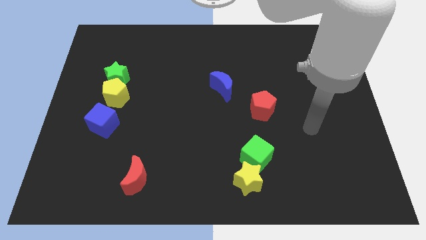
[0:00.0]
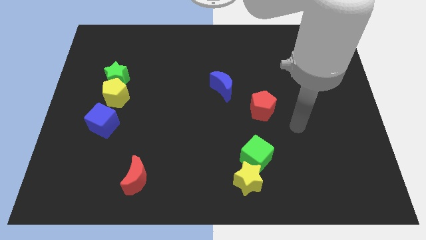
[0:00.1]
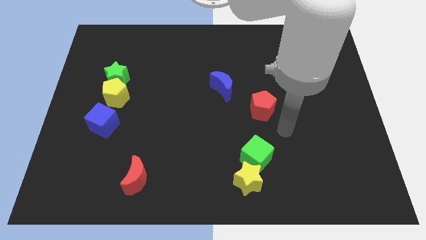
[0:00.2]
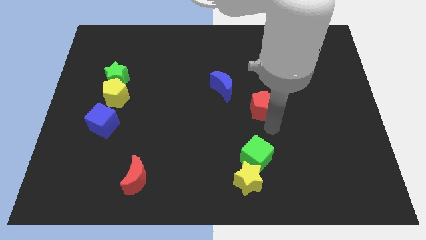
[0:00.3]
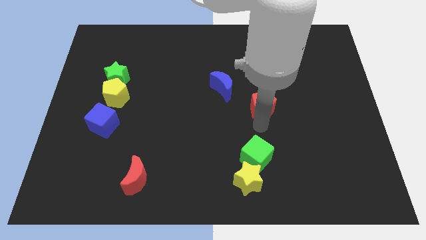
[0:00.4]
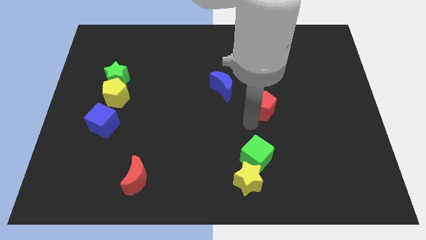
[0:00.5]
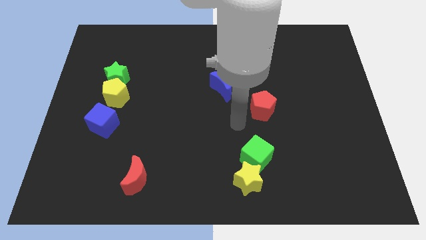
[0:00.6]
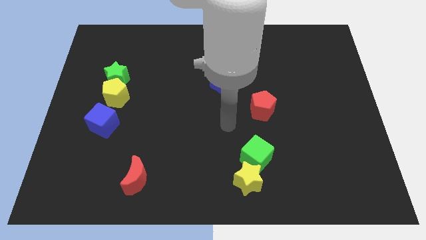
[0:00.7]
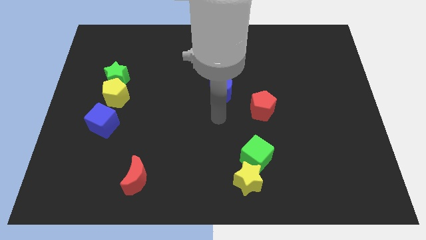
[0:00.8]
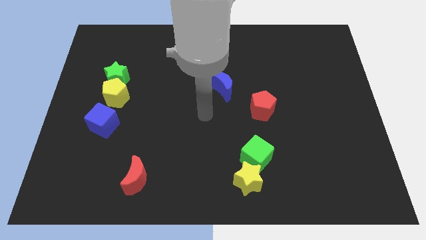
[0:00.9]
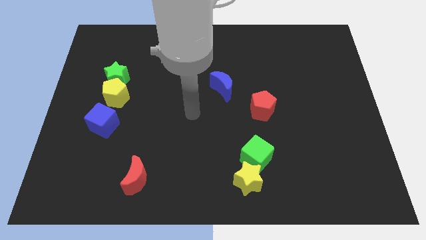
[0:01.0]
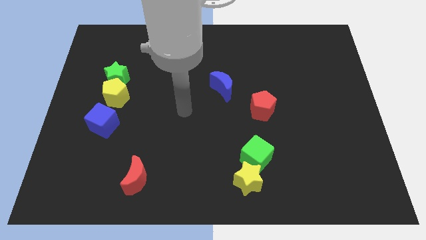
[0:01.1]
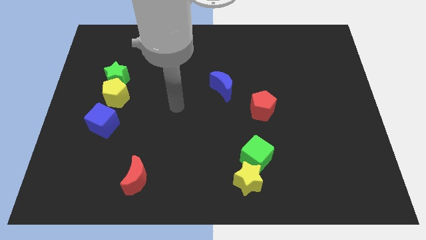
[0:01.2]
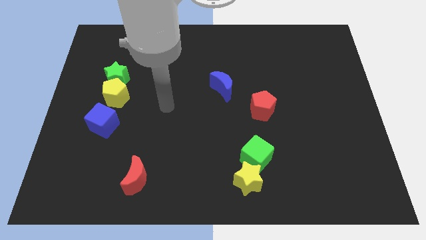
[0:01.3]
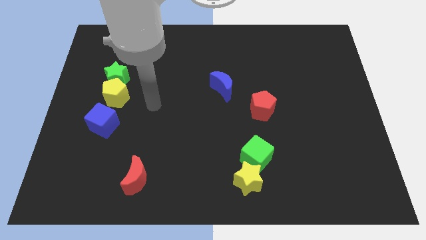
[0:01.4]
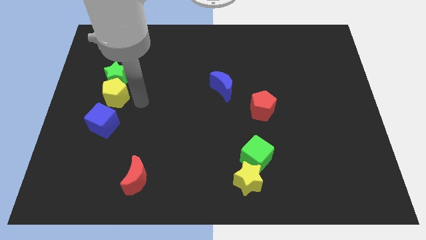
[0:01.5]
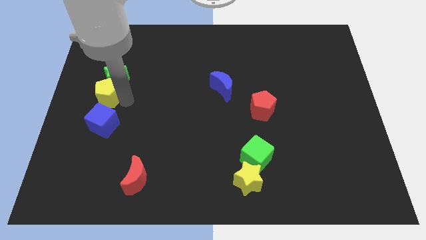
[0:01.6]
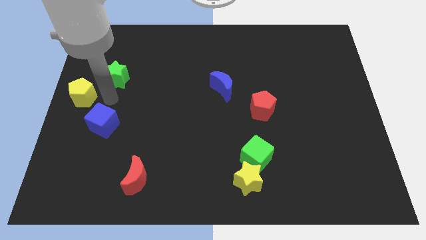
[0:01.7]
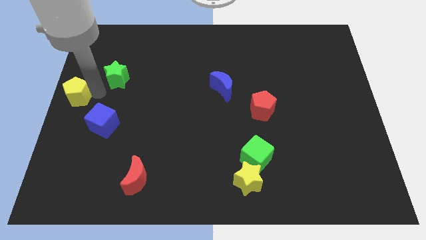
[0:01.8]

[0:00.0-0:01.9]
separate the green star from the yellow pentagon

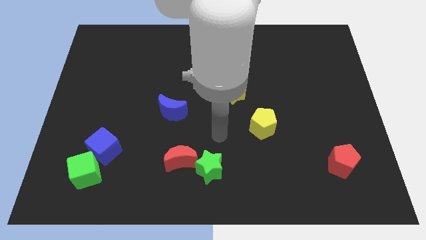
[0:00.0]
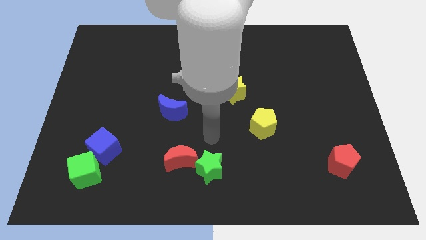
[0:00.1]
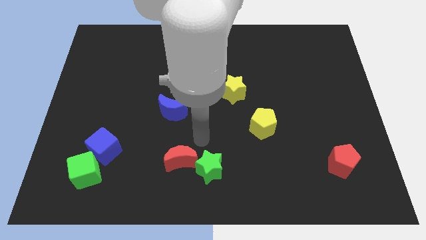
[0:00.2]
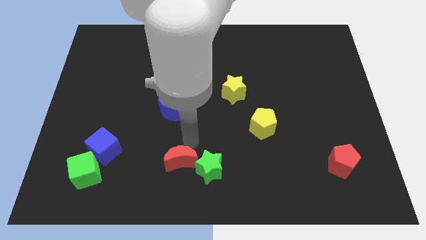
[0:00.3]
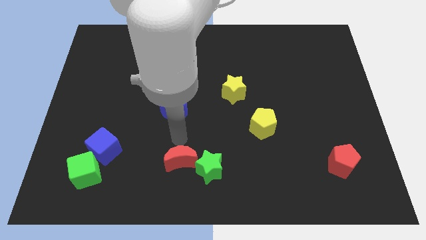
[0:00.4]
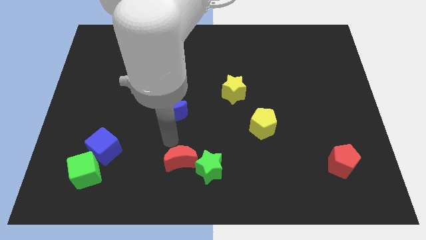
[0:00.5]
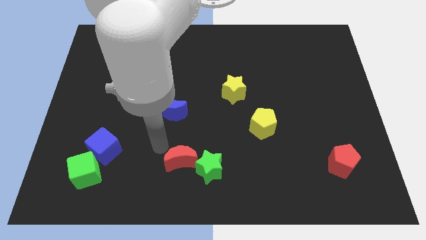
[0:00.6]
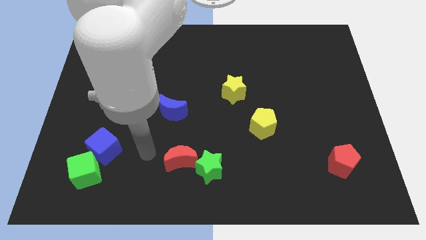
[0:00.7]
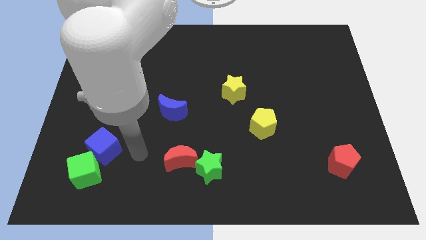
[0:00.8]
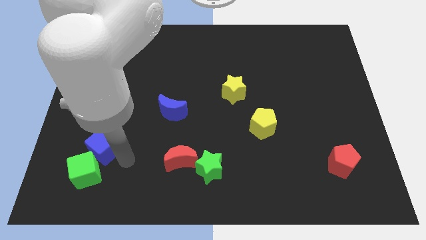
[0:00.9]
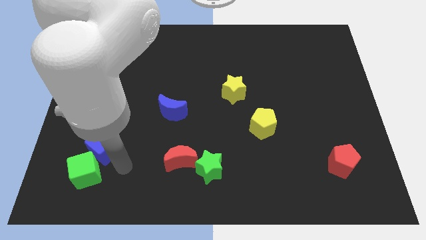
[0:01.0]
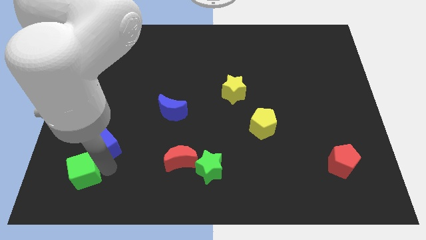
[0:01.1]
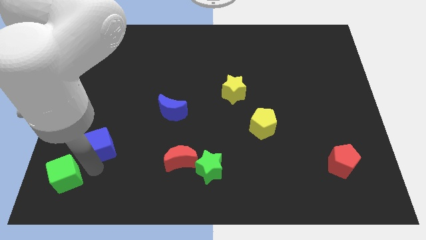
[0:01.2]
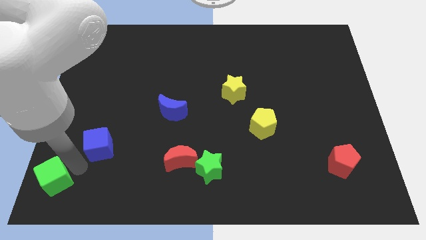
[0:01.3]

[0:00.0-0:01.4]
move the blue cube away from the green cube

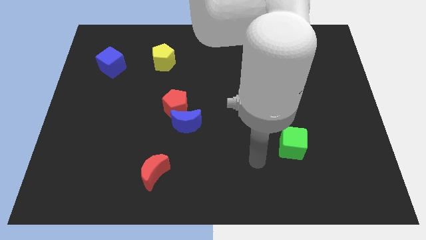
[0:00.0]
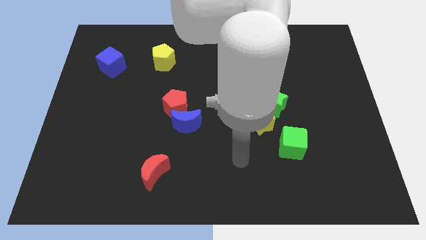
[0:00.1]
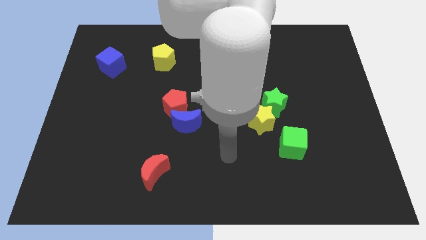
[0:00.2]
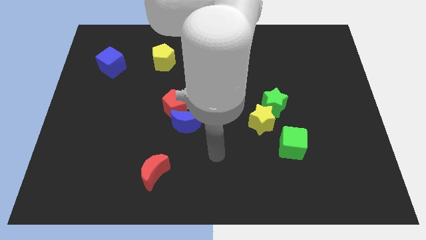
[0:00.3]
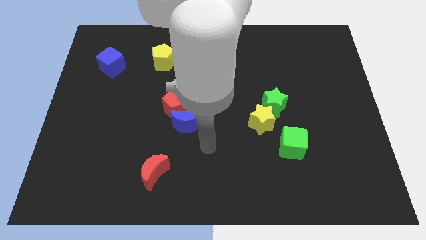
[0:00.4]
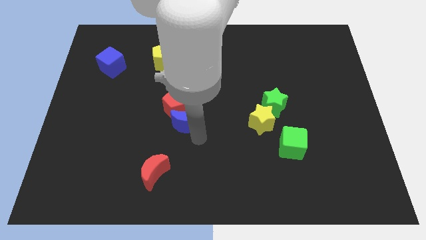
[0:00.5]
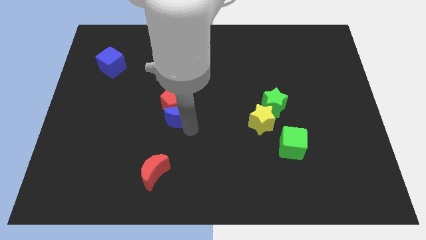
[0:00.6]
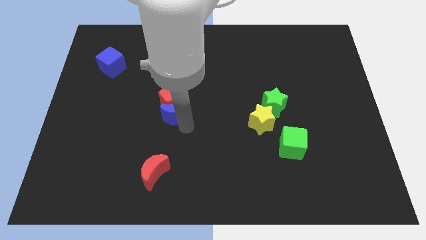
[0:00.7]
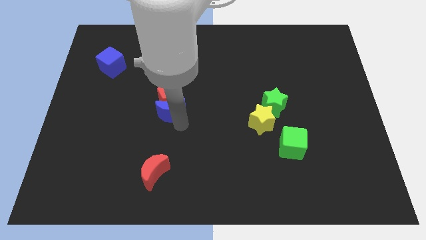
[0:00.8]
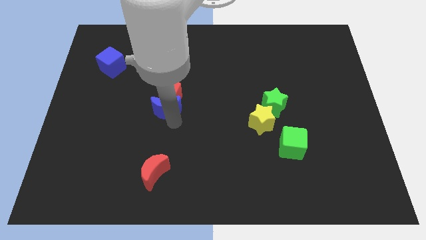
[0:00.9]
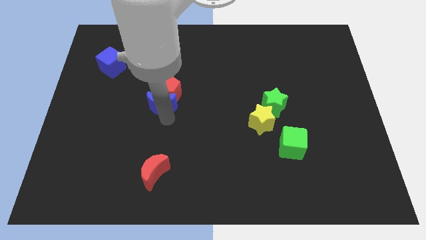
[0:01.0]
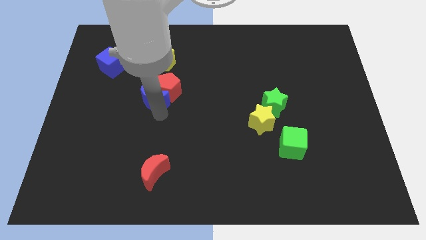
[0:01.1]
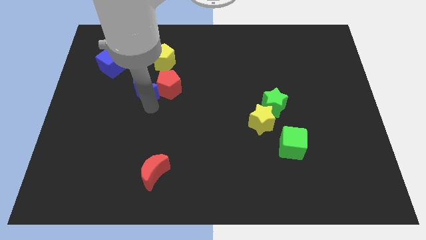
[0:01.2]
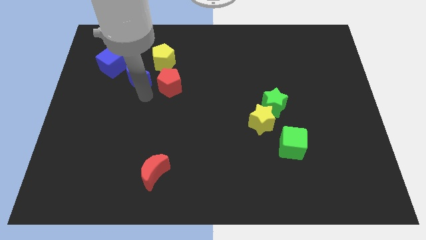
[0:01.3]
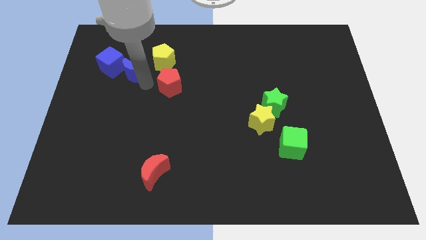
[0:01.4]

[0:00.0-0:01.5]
pull the red pentagon apart from the blue moon

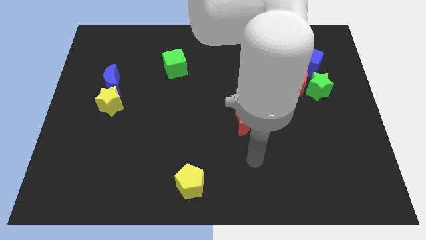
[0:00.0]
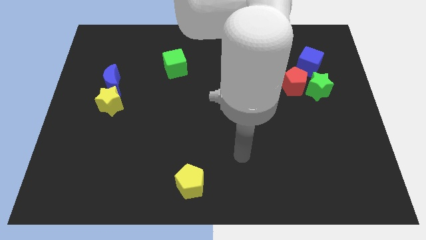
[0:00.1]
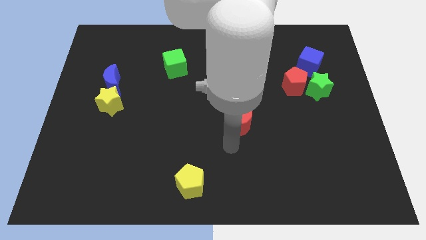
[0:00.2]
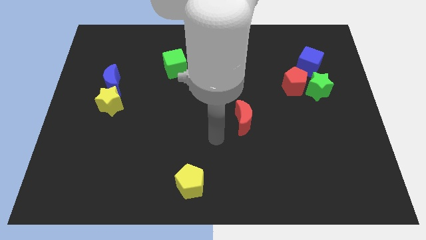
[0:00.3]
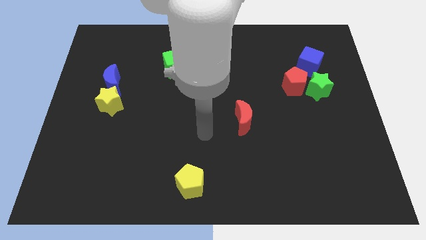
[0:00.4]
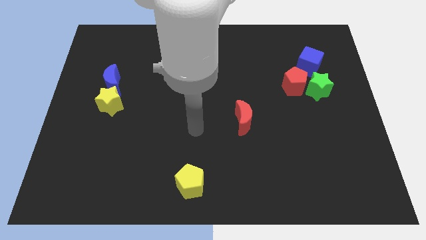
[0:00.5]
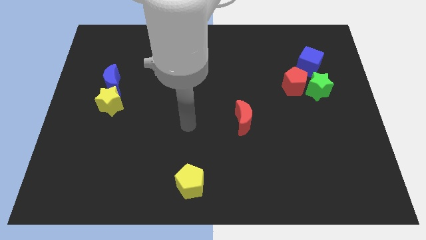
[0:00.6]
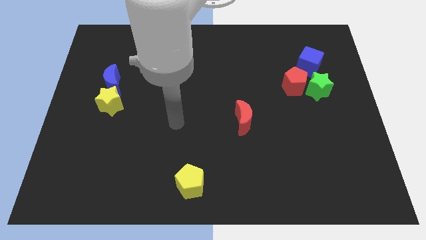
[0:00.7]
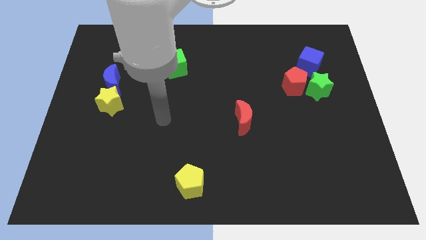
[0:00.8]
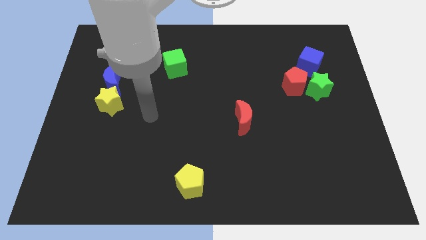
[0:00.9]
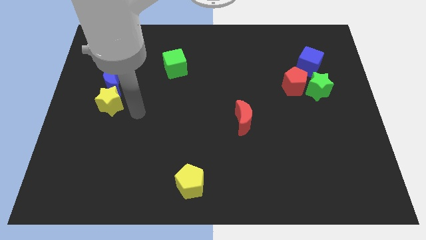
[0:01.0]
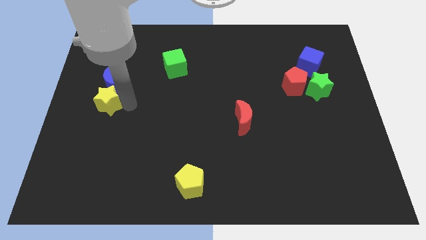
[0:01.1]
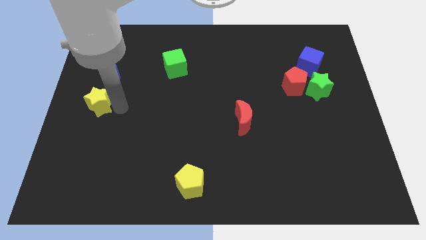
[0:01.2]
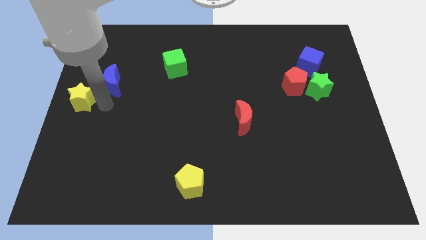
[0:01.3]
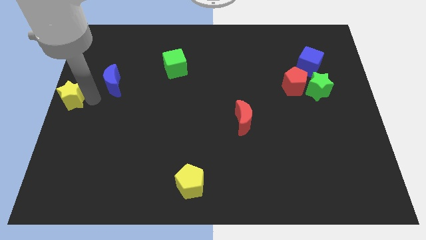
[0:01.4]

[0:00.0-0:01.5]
separate the blue moon from the yellow star

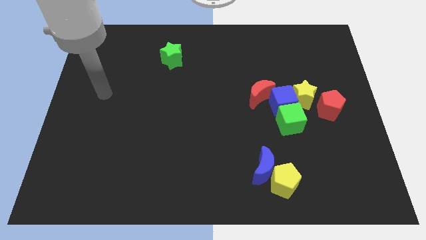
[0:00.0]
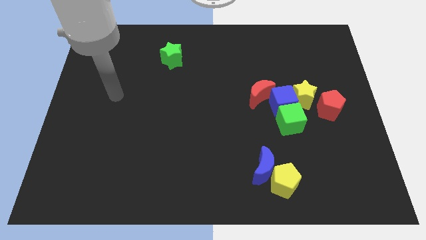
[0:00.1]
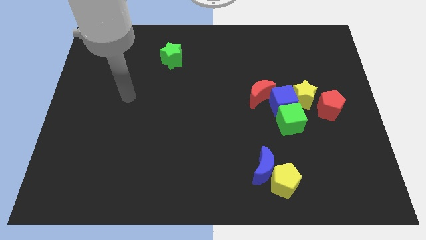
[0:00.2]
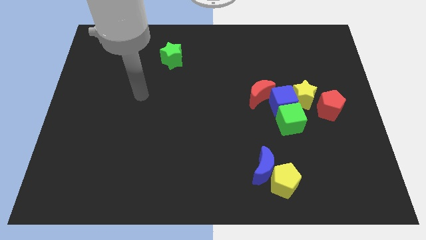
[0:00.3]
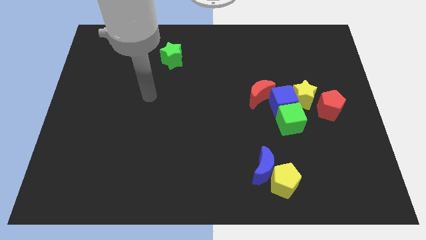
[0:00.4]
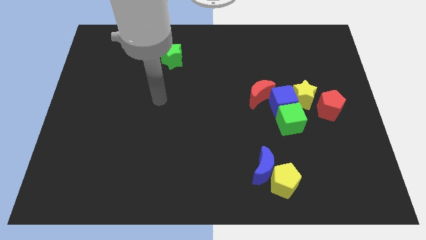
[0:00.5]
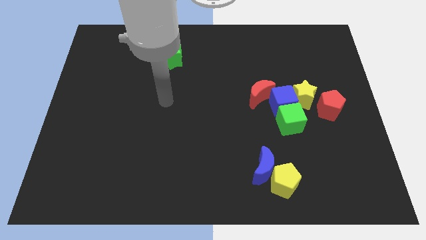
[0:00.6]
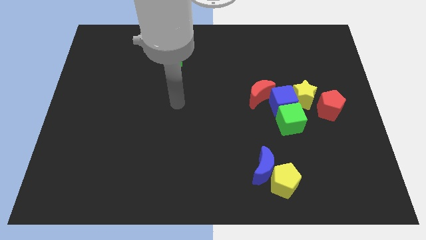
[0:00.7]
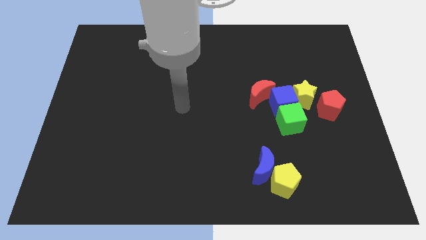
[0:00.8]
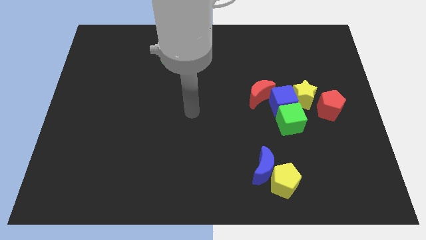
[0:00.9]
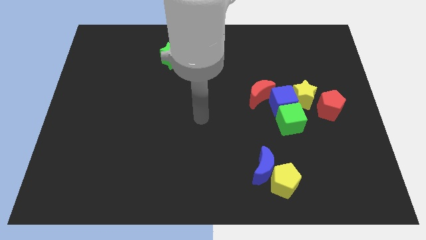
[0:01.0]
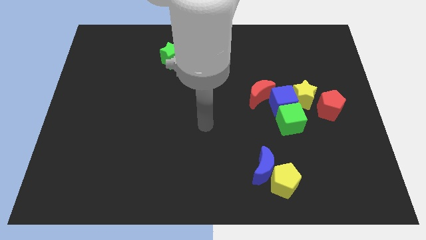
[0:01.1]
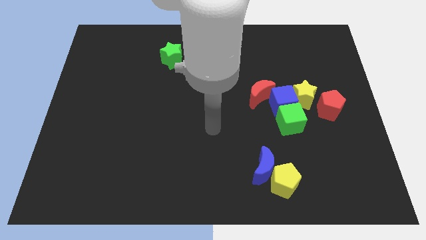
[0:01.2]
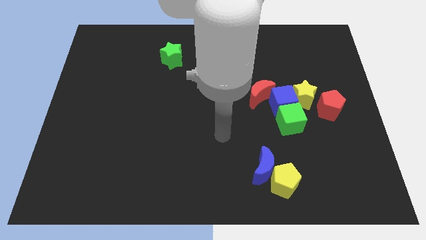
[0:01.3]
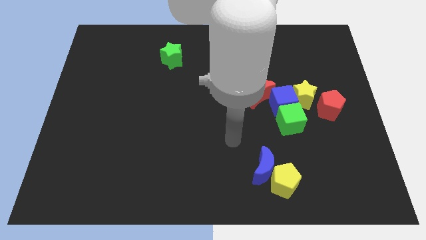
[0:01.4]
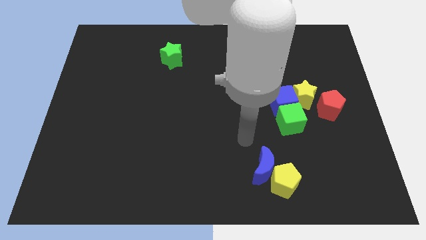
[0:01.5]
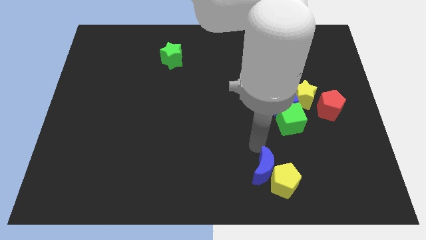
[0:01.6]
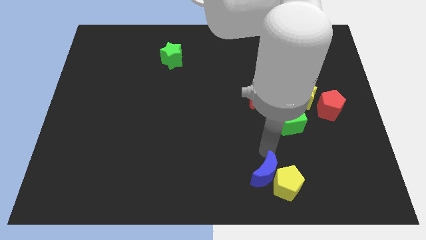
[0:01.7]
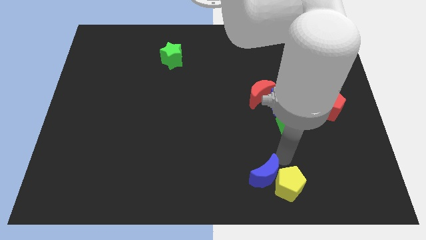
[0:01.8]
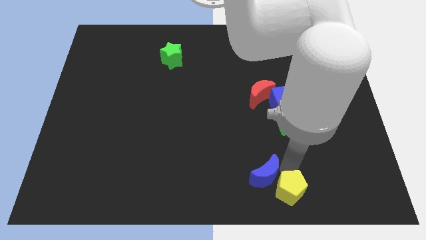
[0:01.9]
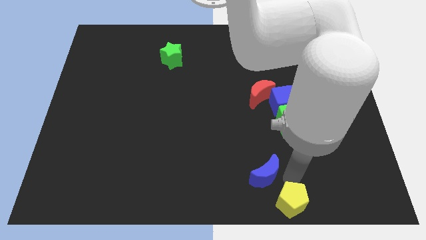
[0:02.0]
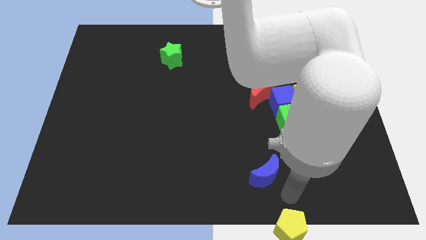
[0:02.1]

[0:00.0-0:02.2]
move the blue moon away from the yellow pentagon

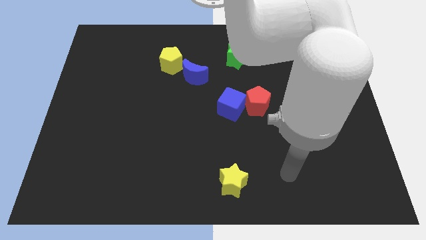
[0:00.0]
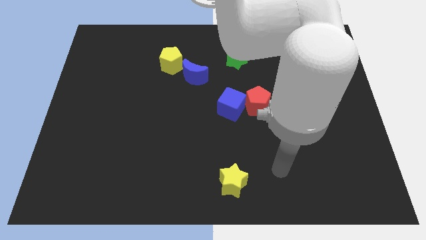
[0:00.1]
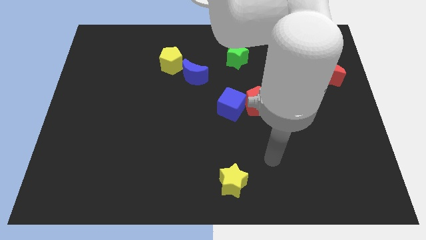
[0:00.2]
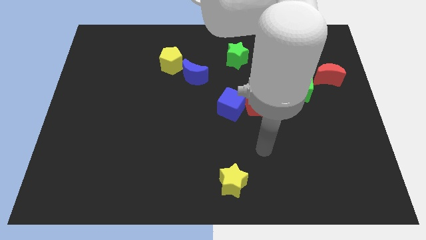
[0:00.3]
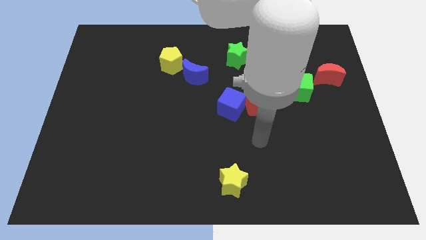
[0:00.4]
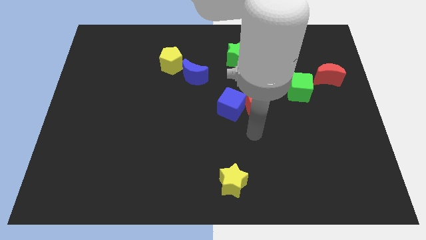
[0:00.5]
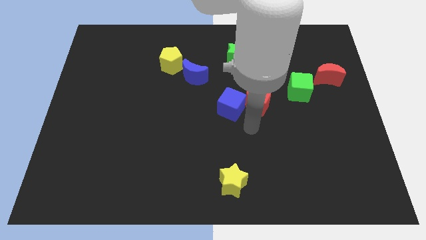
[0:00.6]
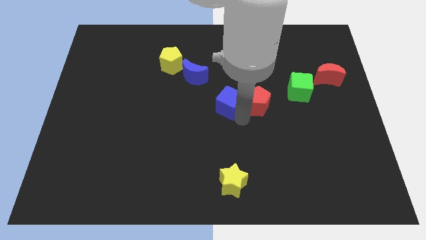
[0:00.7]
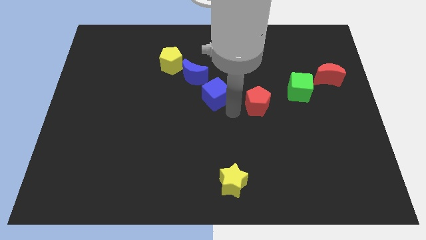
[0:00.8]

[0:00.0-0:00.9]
separate the red pentagon from the blue cube
